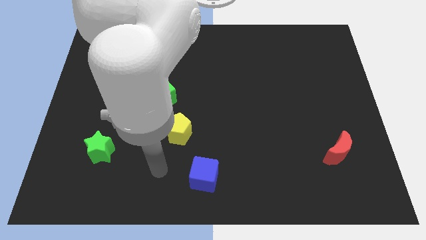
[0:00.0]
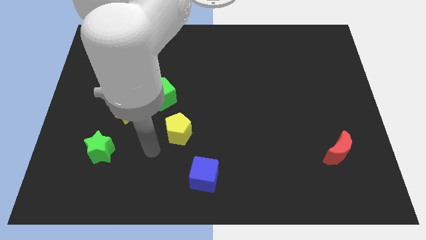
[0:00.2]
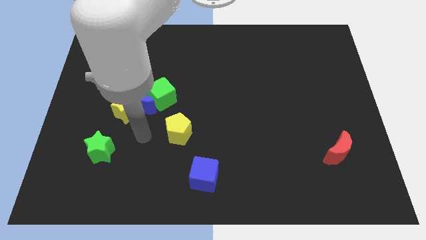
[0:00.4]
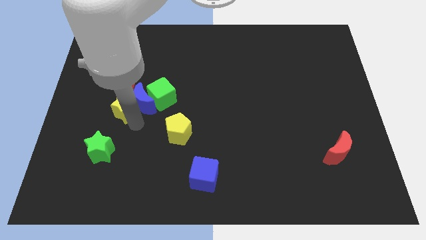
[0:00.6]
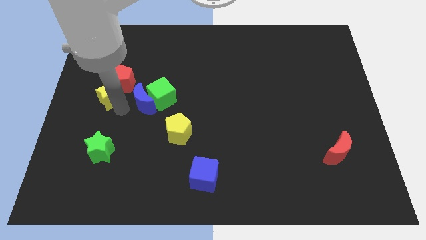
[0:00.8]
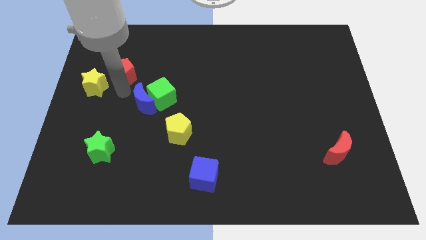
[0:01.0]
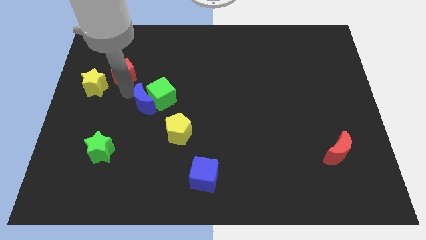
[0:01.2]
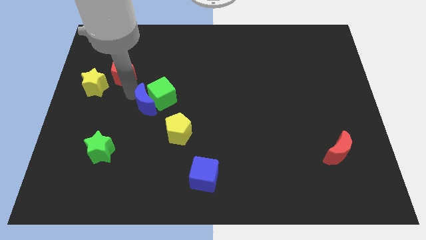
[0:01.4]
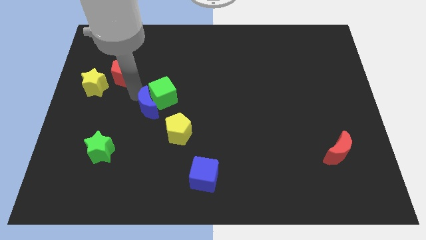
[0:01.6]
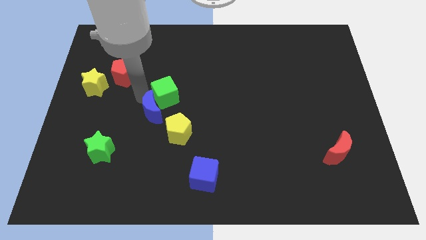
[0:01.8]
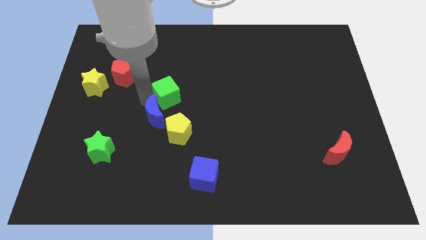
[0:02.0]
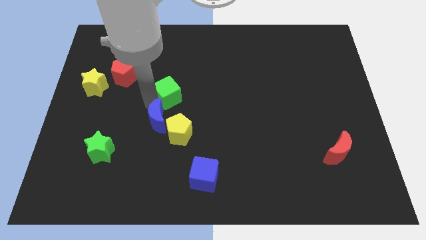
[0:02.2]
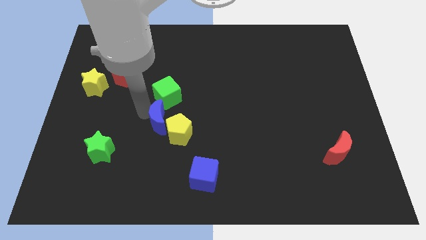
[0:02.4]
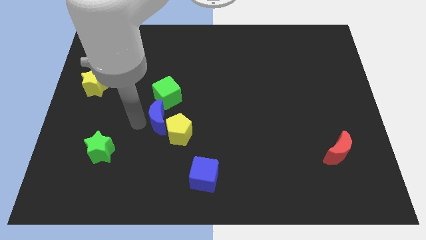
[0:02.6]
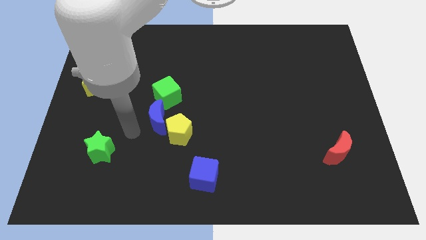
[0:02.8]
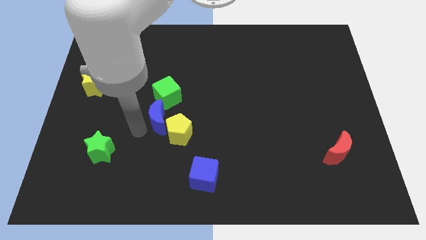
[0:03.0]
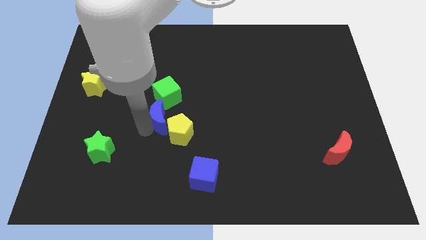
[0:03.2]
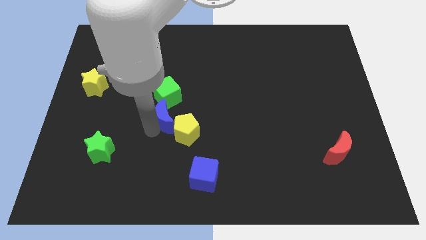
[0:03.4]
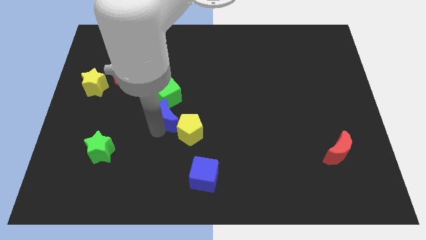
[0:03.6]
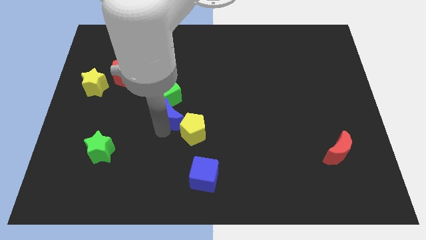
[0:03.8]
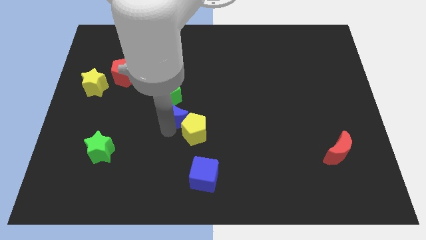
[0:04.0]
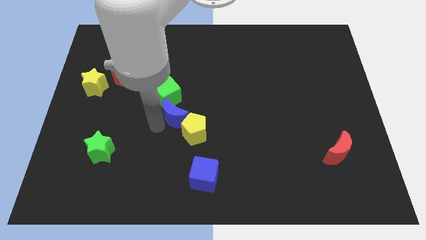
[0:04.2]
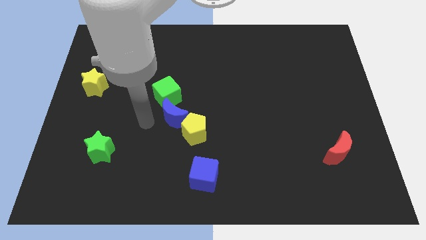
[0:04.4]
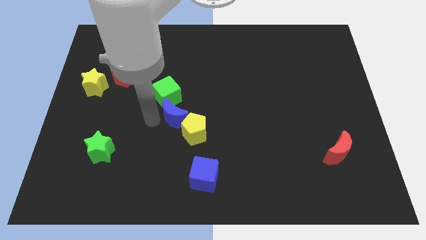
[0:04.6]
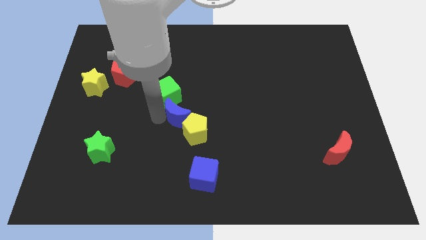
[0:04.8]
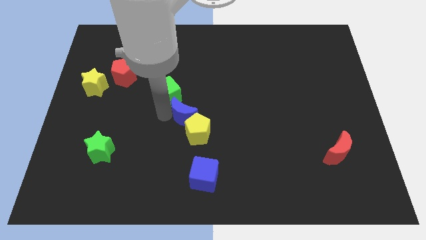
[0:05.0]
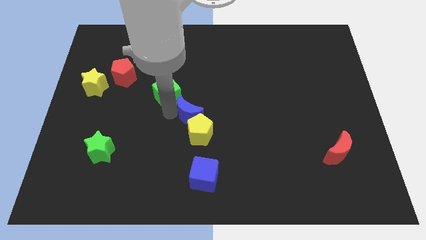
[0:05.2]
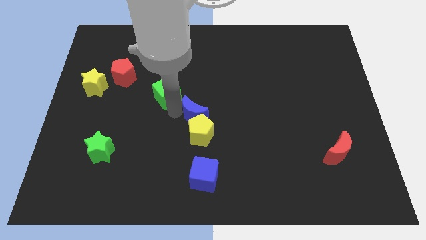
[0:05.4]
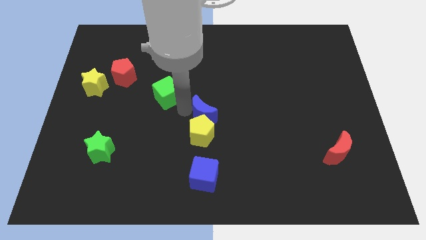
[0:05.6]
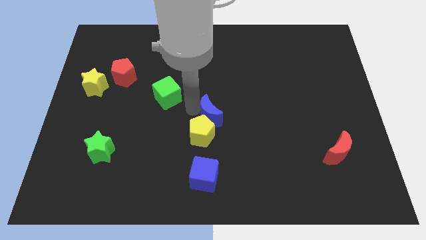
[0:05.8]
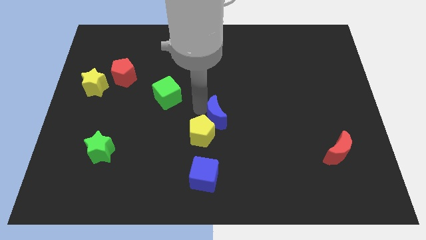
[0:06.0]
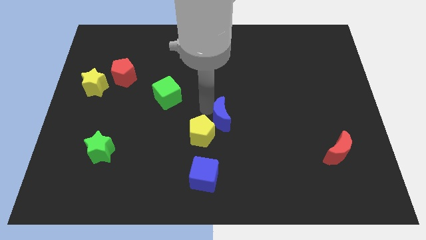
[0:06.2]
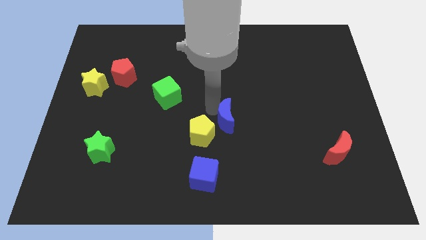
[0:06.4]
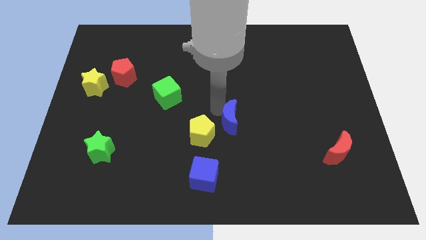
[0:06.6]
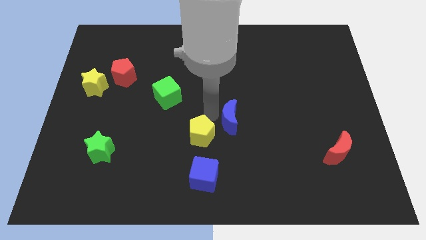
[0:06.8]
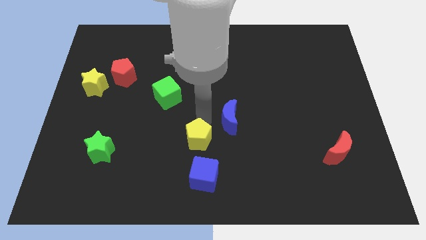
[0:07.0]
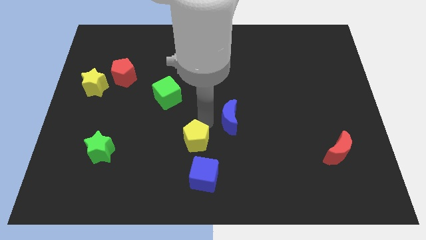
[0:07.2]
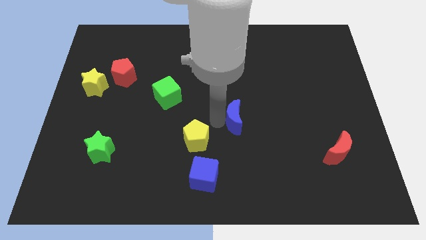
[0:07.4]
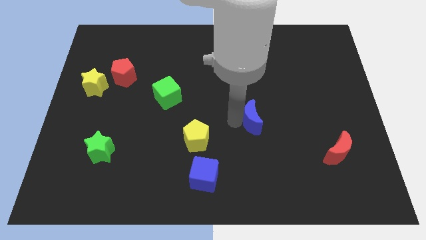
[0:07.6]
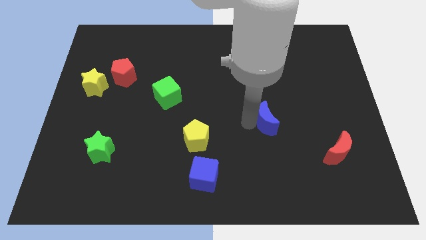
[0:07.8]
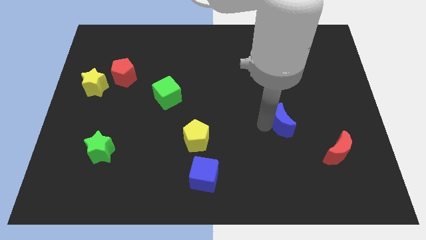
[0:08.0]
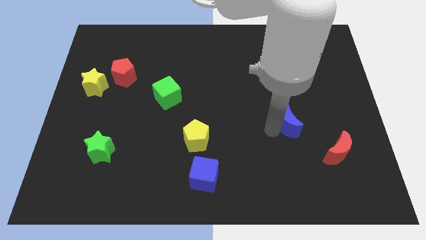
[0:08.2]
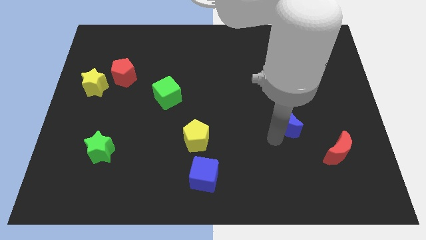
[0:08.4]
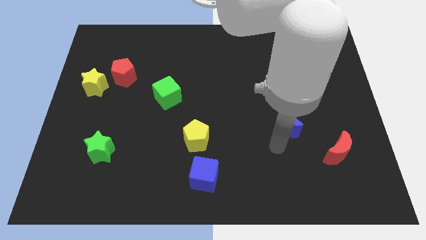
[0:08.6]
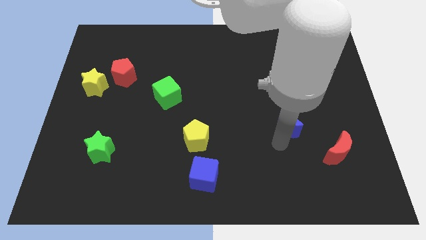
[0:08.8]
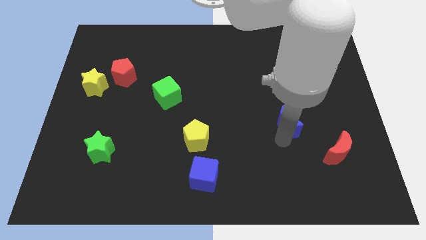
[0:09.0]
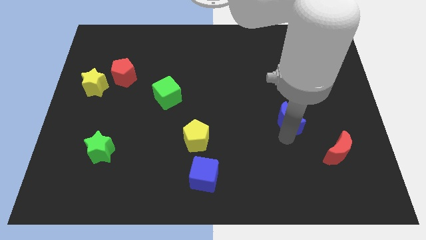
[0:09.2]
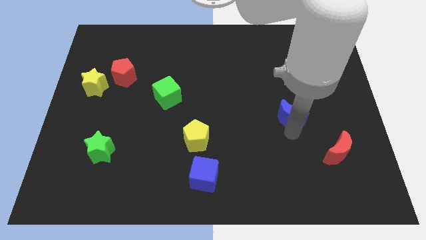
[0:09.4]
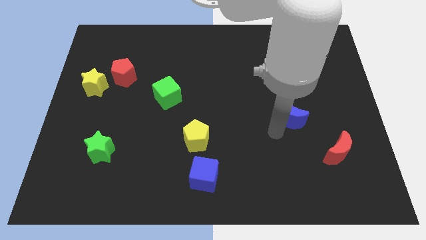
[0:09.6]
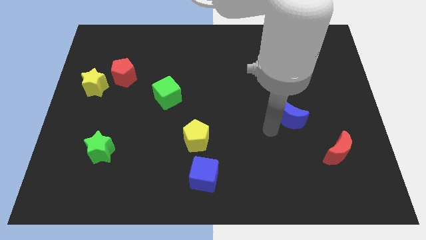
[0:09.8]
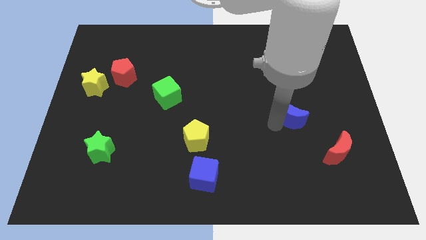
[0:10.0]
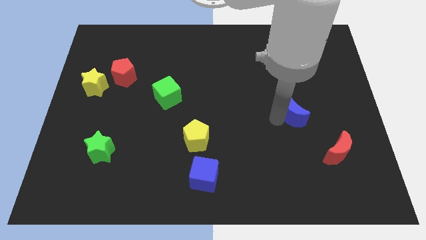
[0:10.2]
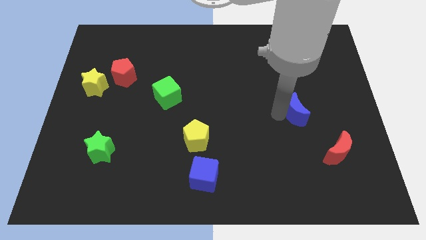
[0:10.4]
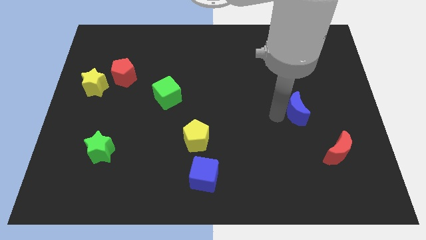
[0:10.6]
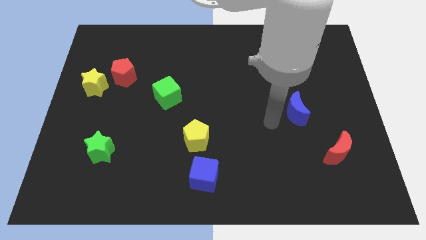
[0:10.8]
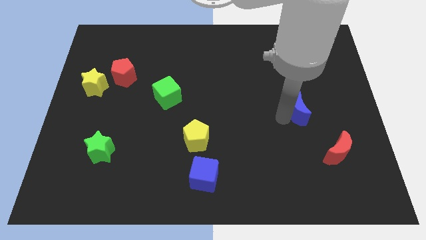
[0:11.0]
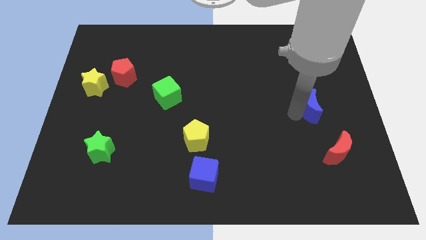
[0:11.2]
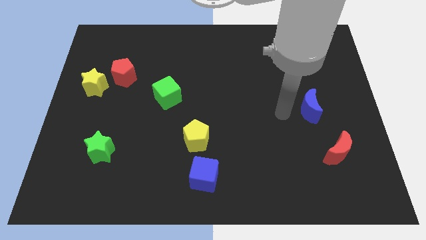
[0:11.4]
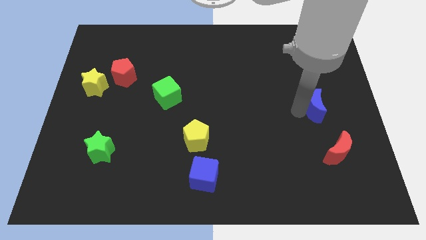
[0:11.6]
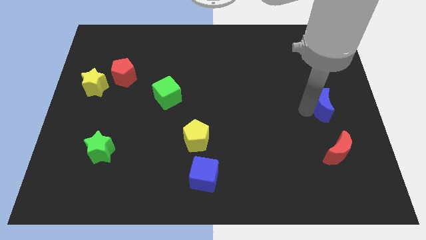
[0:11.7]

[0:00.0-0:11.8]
push the blue moon to the center right

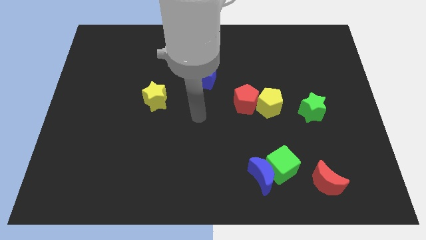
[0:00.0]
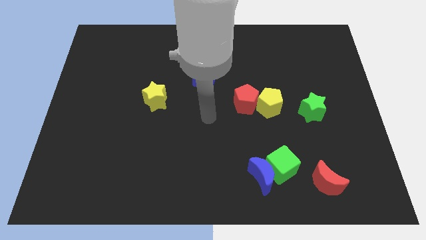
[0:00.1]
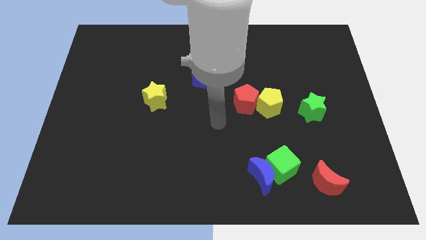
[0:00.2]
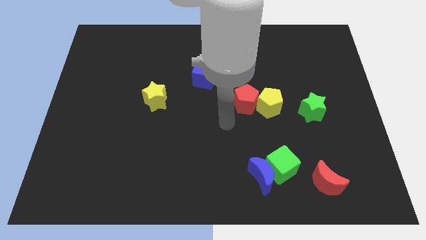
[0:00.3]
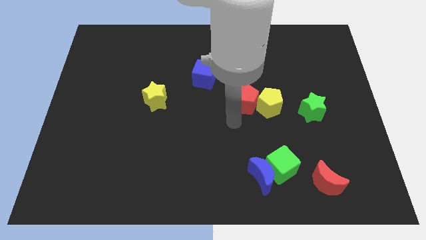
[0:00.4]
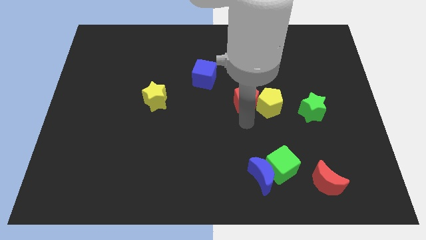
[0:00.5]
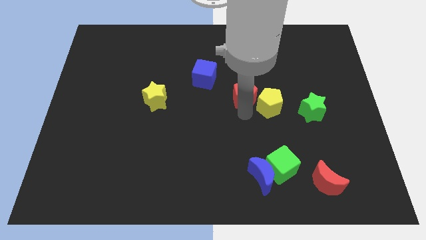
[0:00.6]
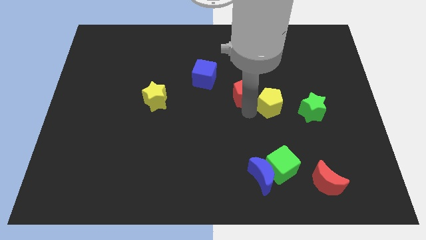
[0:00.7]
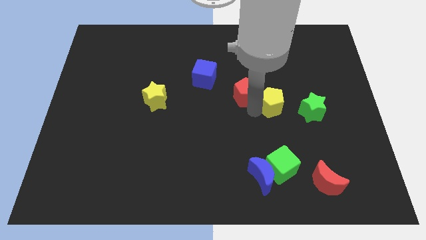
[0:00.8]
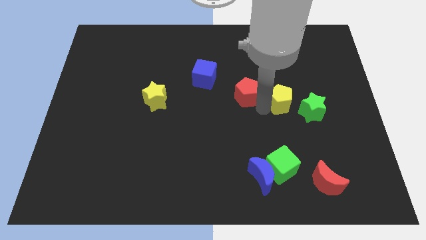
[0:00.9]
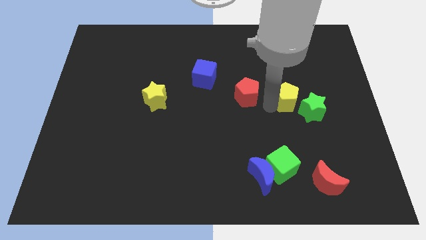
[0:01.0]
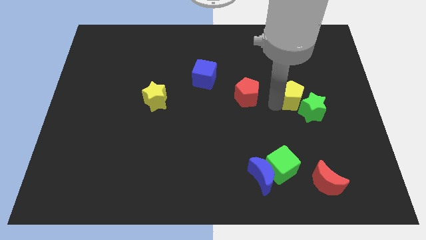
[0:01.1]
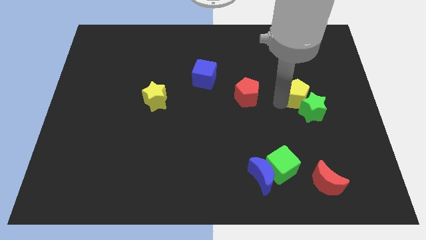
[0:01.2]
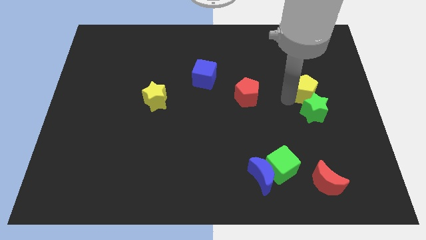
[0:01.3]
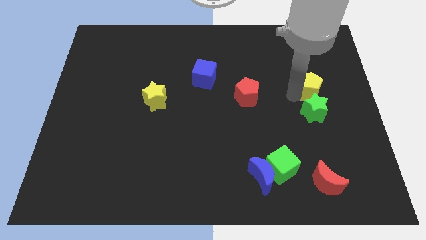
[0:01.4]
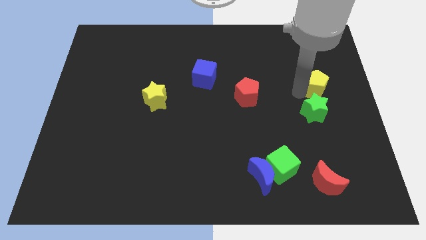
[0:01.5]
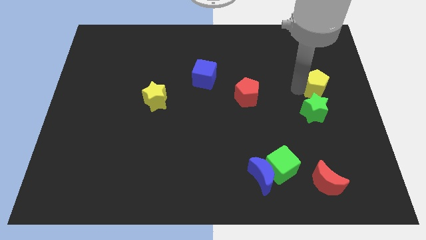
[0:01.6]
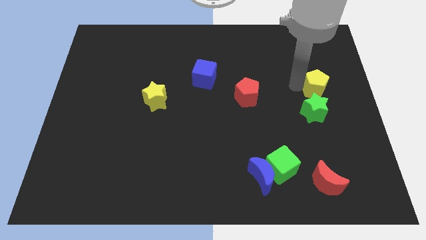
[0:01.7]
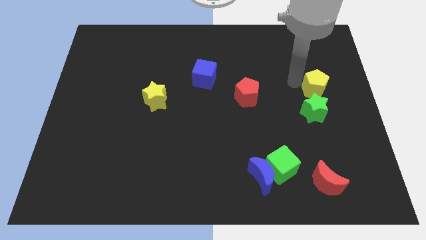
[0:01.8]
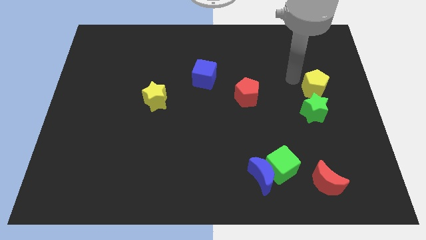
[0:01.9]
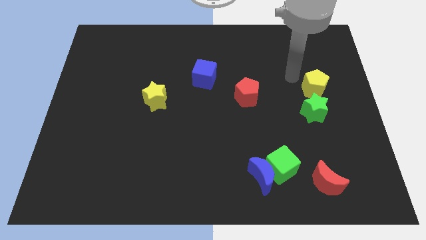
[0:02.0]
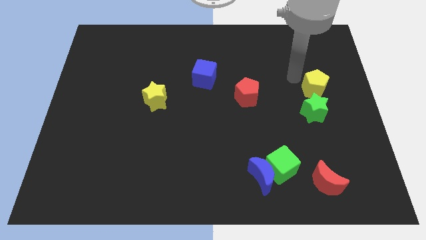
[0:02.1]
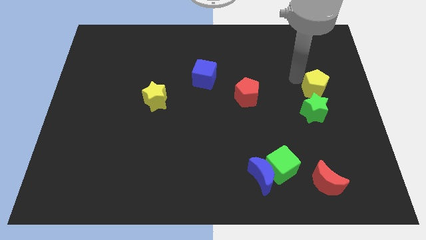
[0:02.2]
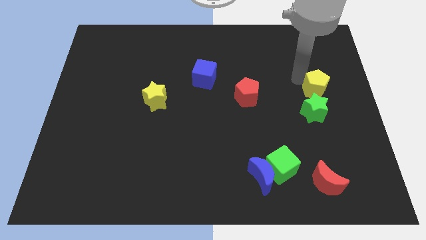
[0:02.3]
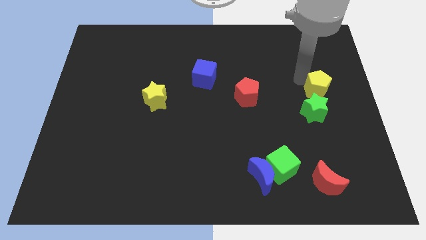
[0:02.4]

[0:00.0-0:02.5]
slide the yellow pentagon to the right side
